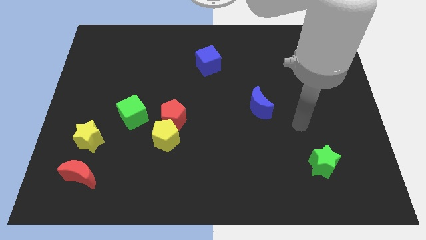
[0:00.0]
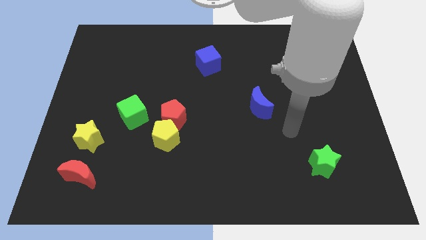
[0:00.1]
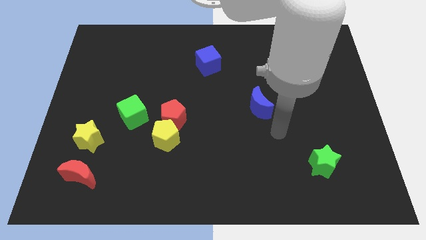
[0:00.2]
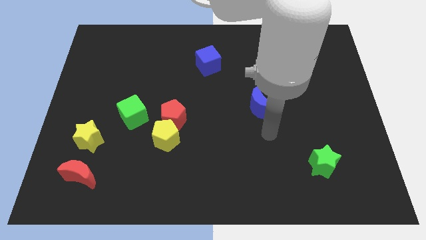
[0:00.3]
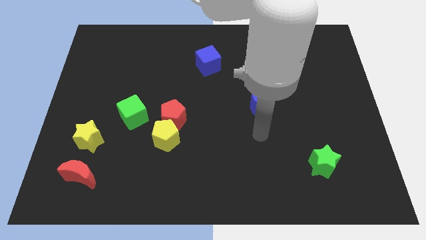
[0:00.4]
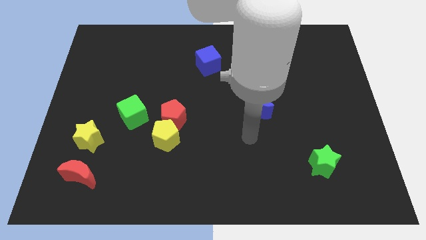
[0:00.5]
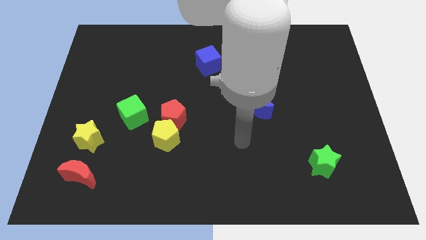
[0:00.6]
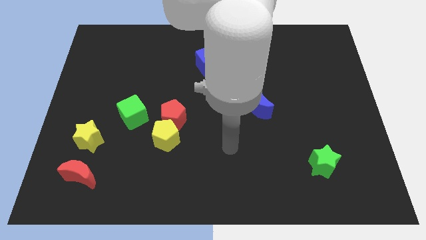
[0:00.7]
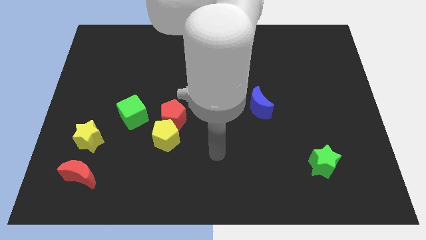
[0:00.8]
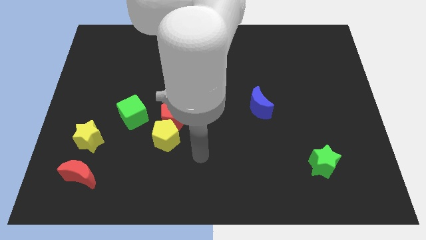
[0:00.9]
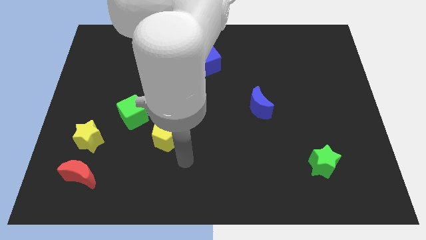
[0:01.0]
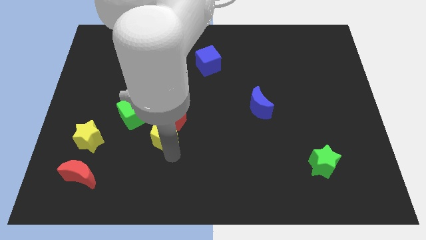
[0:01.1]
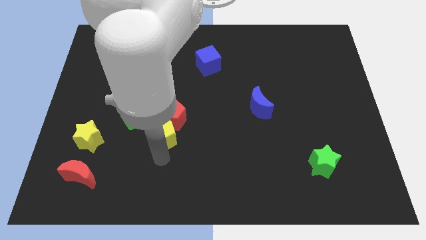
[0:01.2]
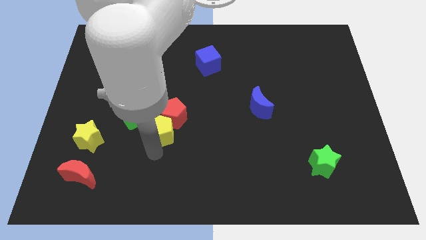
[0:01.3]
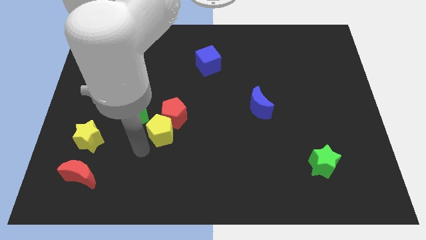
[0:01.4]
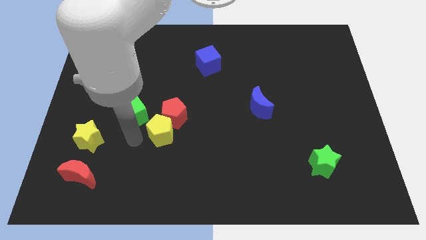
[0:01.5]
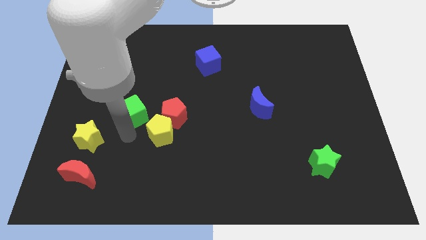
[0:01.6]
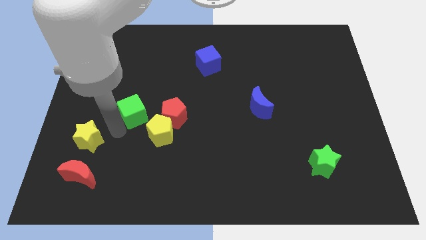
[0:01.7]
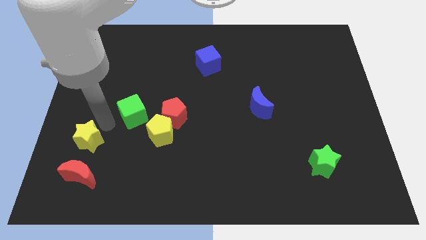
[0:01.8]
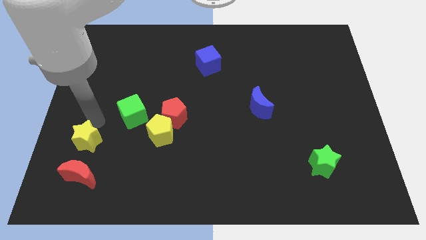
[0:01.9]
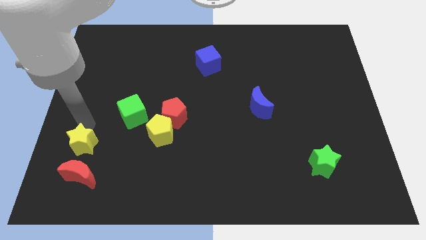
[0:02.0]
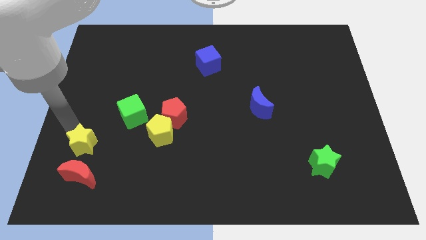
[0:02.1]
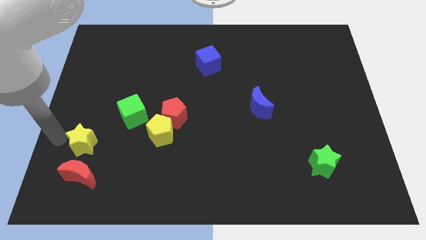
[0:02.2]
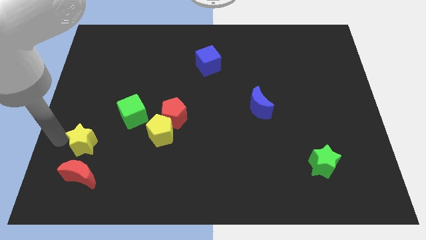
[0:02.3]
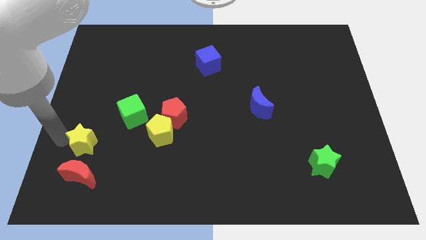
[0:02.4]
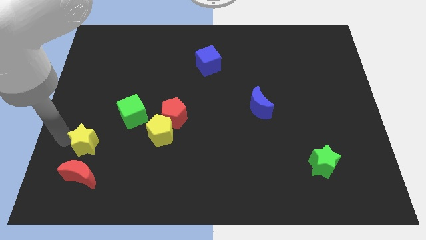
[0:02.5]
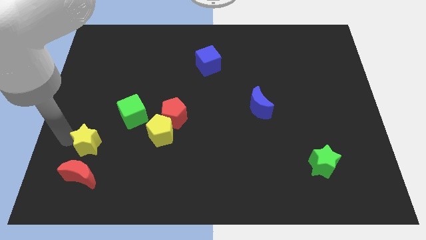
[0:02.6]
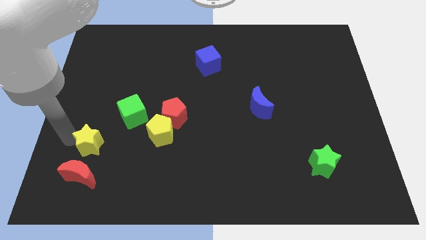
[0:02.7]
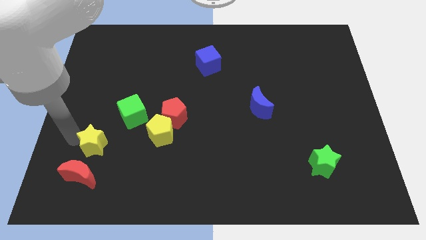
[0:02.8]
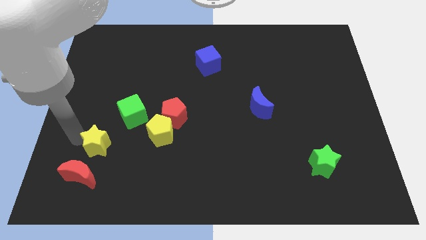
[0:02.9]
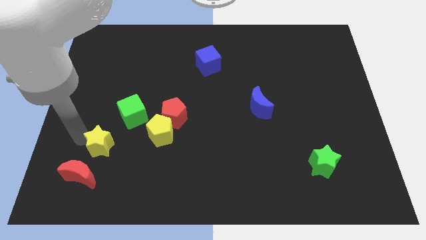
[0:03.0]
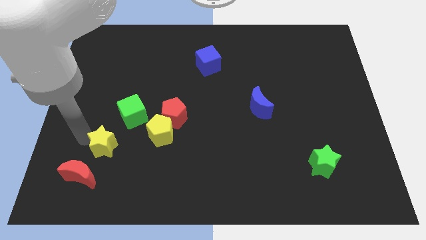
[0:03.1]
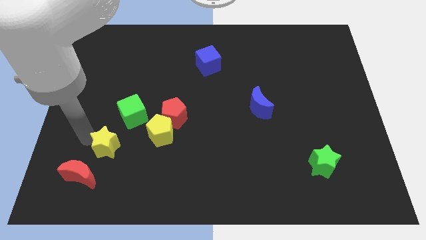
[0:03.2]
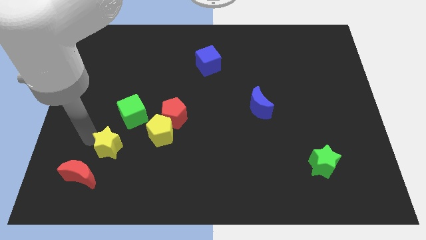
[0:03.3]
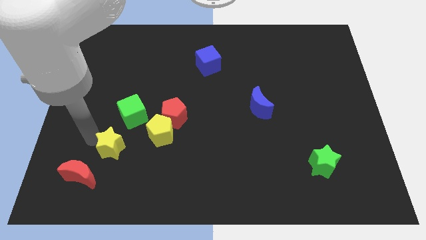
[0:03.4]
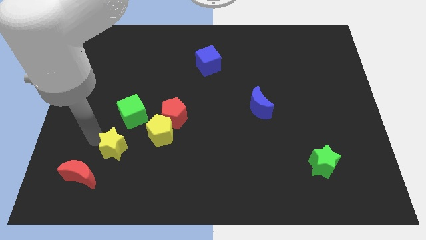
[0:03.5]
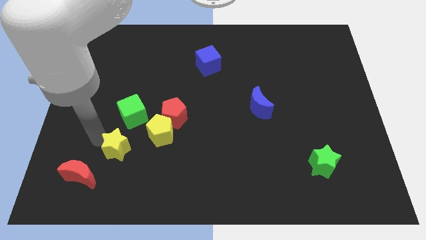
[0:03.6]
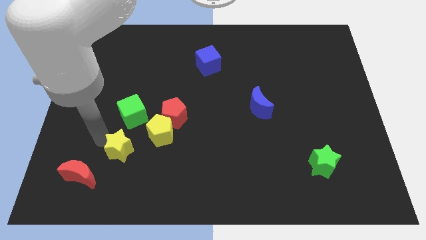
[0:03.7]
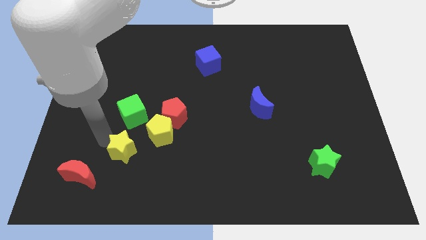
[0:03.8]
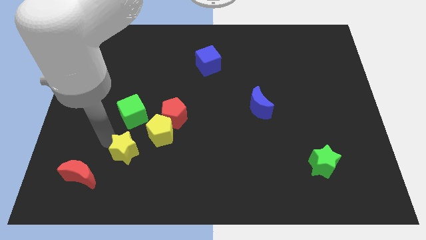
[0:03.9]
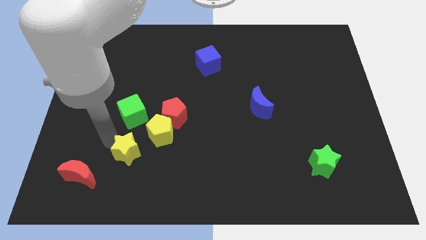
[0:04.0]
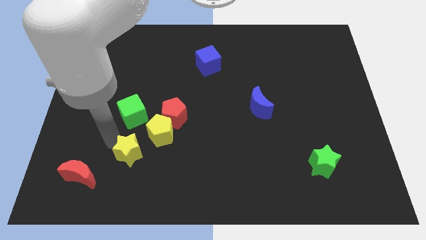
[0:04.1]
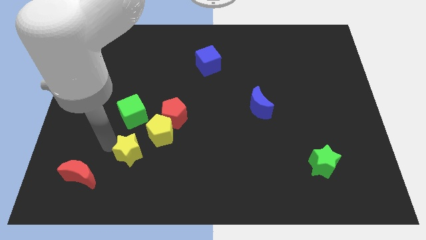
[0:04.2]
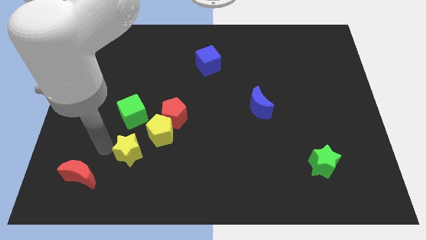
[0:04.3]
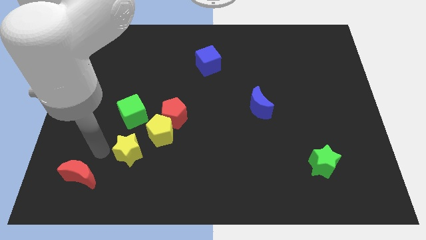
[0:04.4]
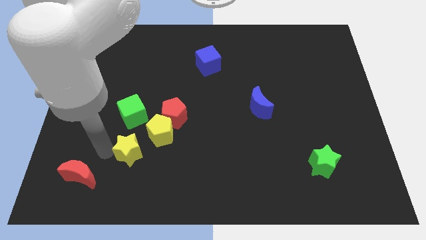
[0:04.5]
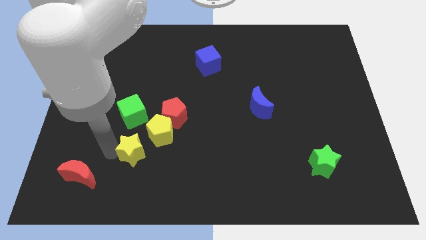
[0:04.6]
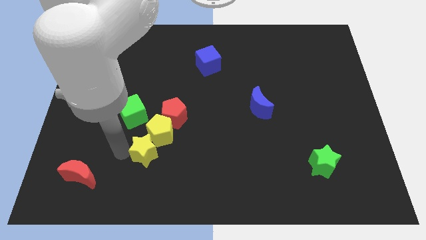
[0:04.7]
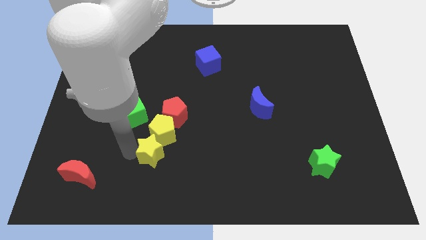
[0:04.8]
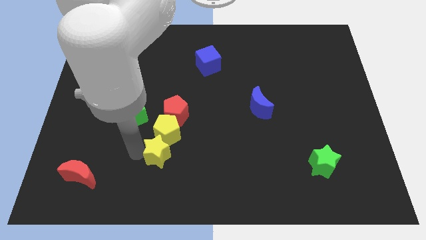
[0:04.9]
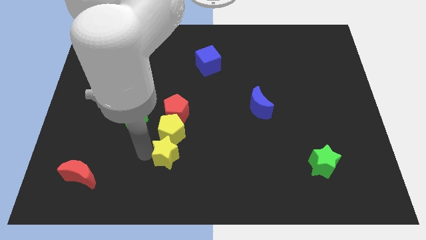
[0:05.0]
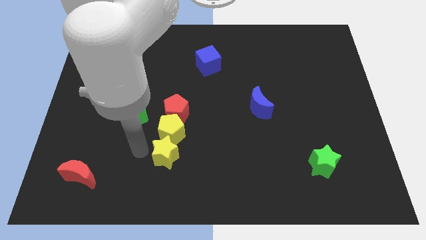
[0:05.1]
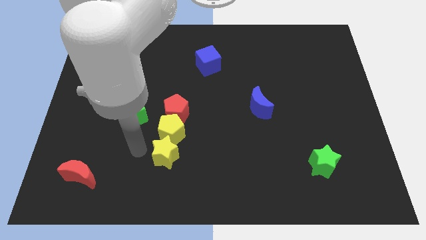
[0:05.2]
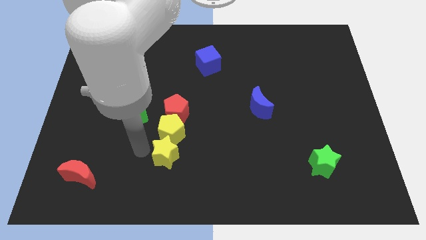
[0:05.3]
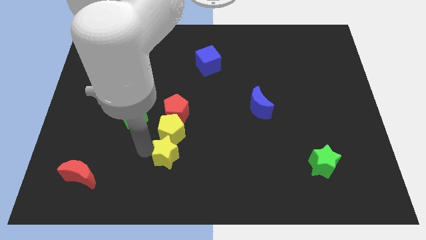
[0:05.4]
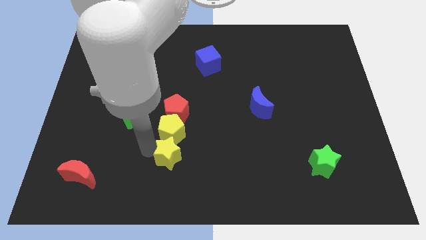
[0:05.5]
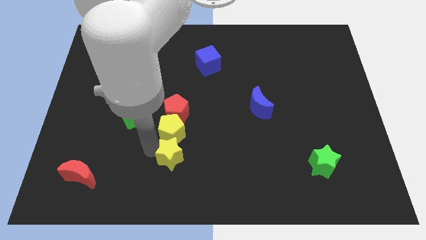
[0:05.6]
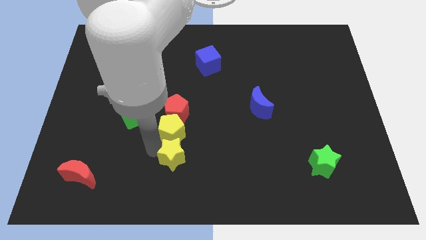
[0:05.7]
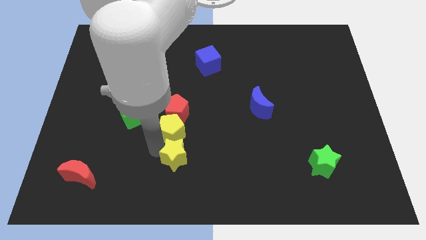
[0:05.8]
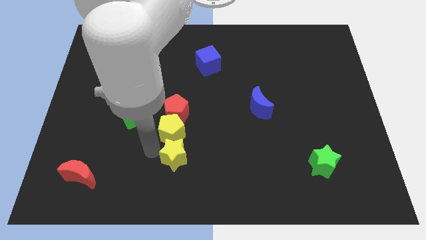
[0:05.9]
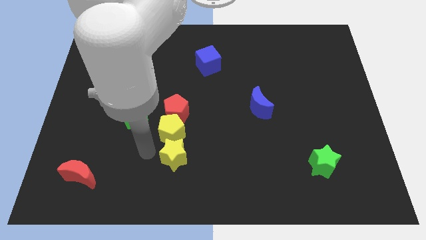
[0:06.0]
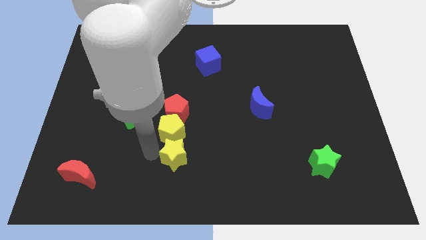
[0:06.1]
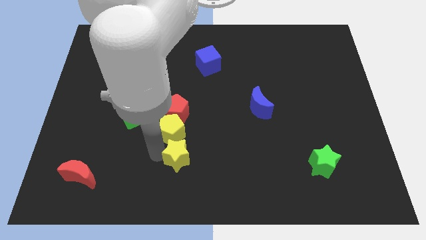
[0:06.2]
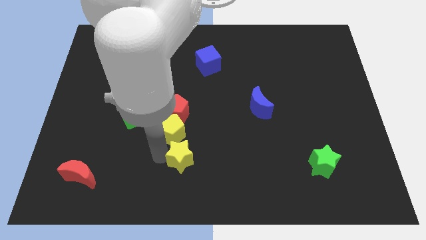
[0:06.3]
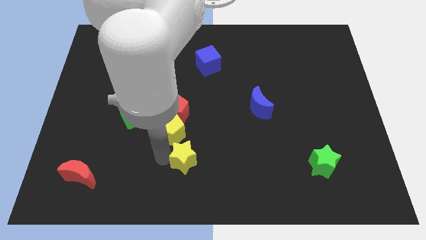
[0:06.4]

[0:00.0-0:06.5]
slide the yellow star right

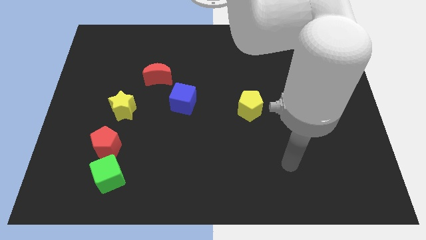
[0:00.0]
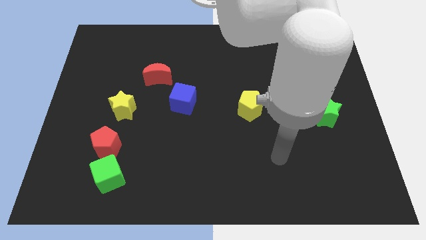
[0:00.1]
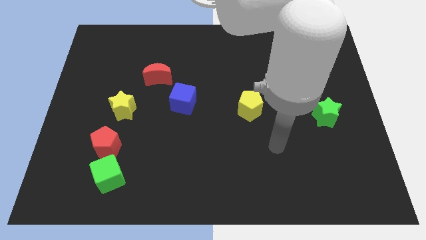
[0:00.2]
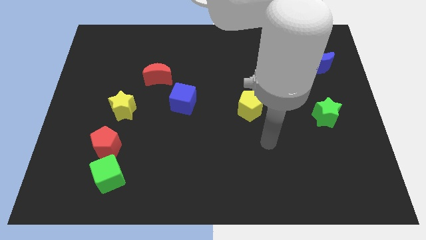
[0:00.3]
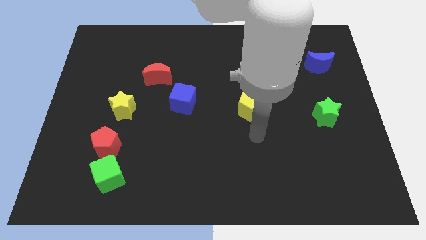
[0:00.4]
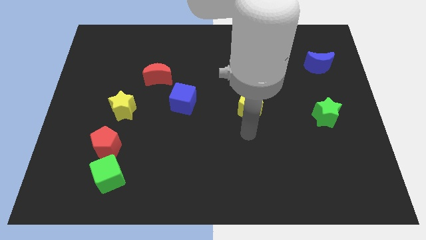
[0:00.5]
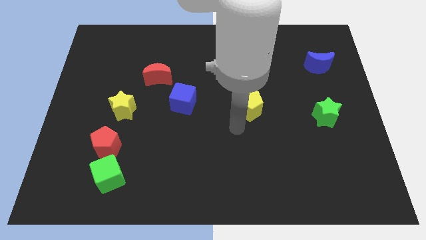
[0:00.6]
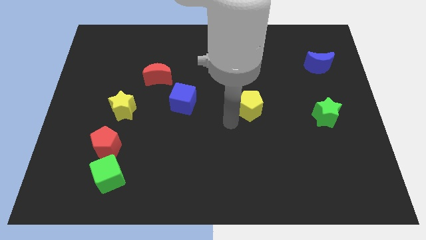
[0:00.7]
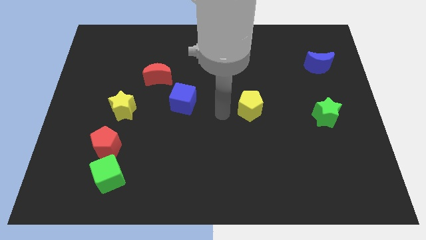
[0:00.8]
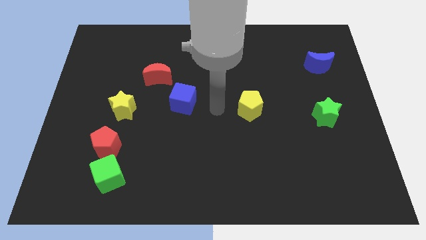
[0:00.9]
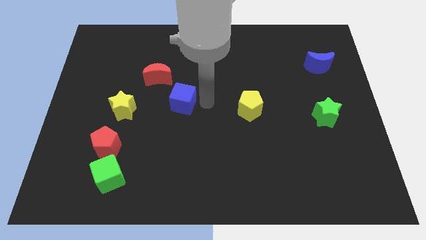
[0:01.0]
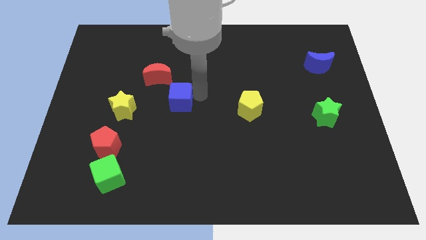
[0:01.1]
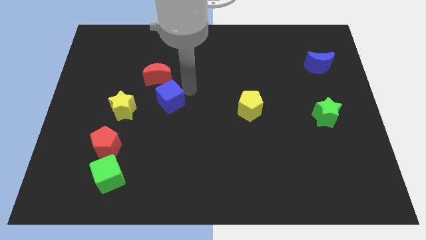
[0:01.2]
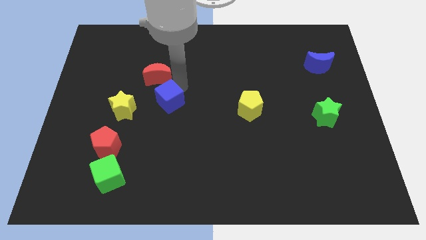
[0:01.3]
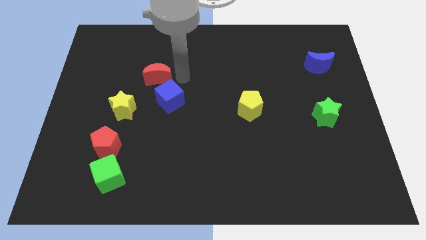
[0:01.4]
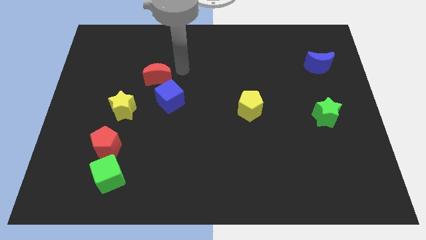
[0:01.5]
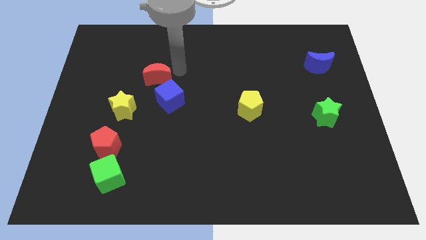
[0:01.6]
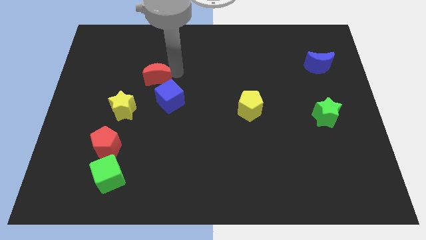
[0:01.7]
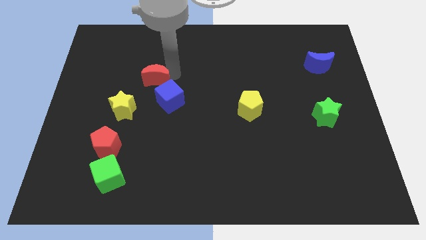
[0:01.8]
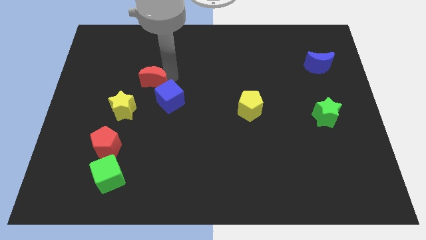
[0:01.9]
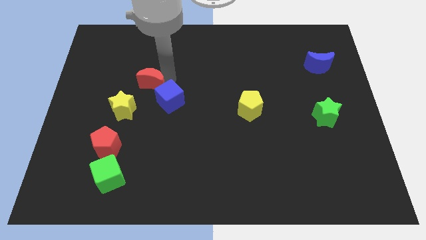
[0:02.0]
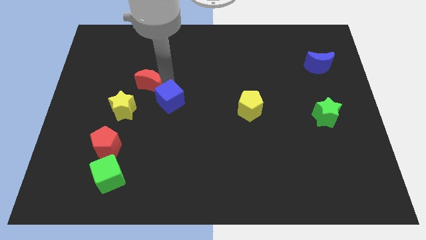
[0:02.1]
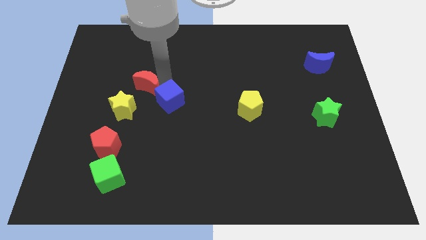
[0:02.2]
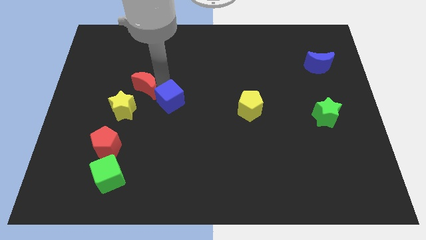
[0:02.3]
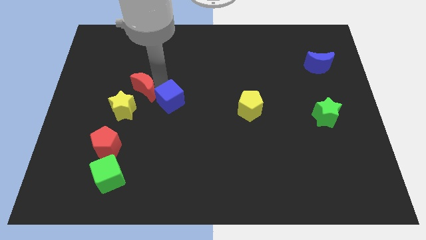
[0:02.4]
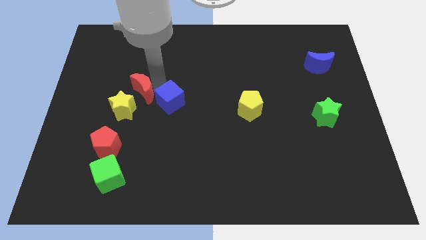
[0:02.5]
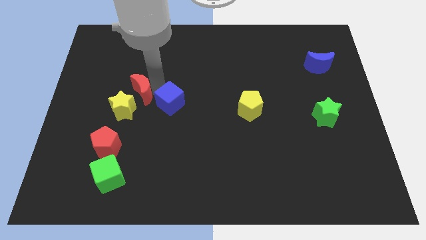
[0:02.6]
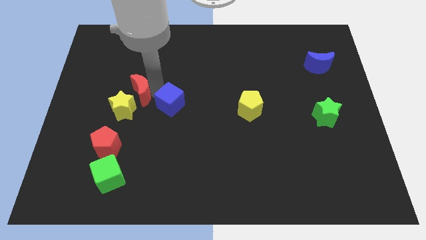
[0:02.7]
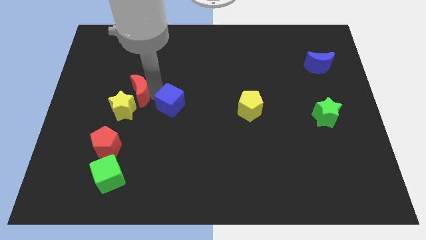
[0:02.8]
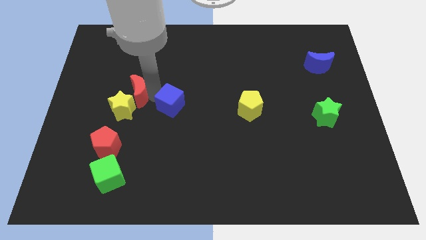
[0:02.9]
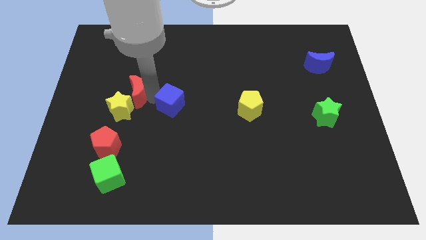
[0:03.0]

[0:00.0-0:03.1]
slightly push the red moon downwards and to the left diagonally
